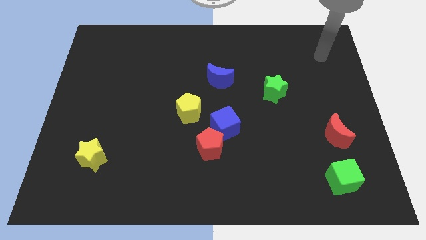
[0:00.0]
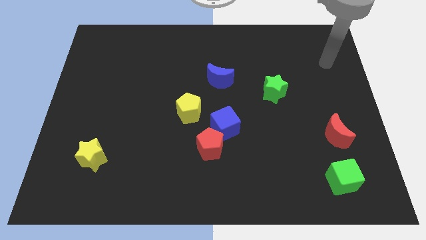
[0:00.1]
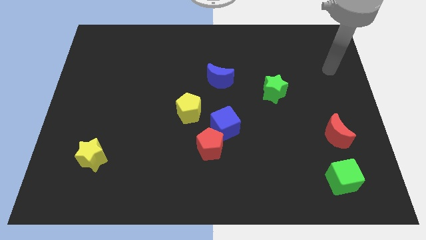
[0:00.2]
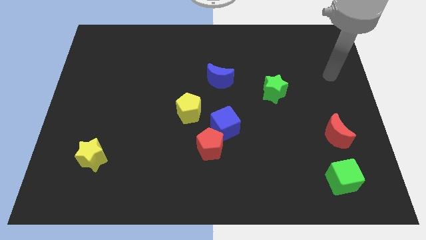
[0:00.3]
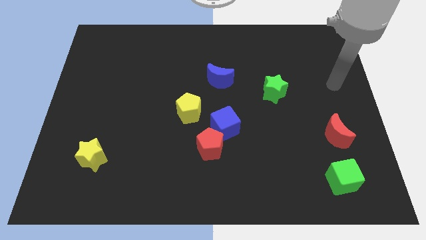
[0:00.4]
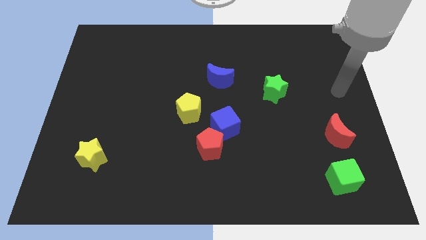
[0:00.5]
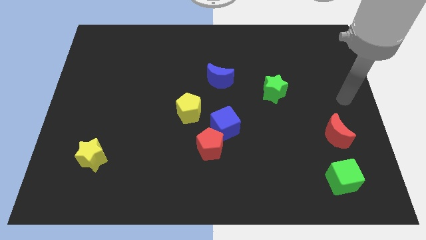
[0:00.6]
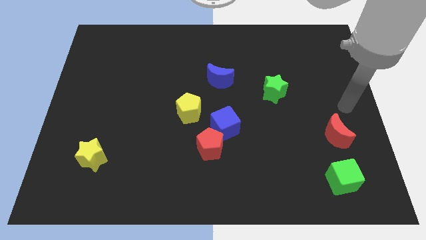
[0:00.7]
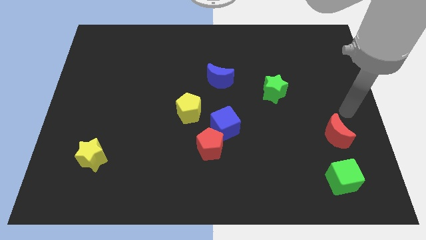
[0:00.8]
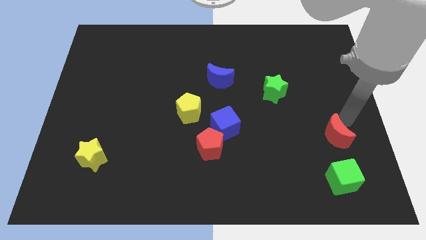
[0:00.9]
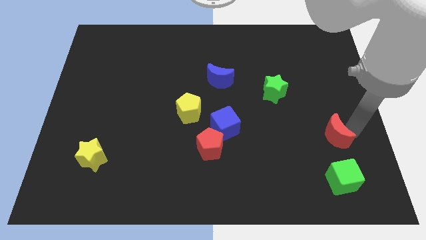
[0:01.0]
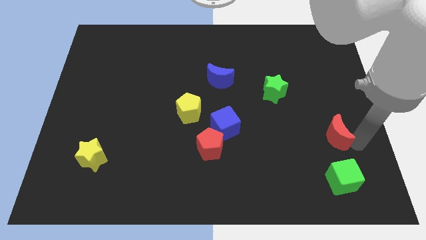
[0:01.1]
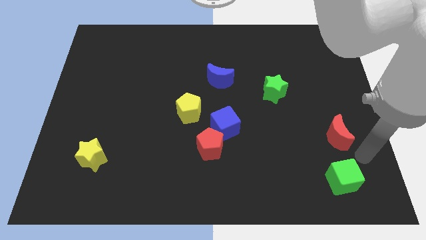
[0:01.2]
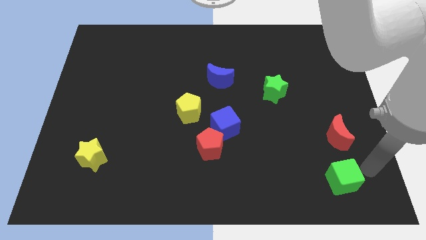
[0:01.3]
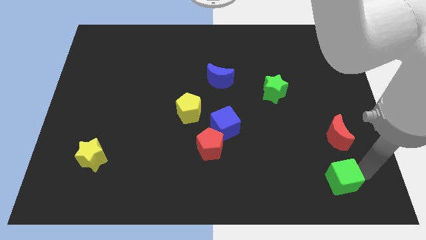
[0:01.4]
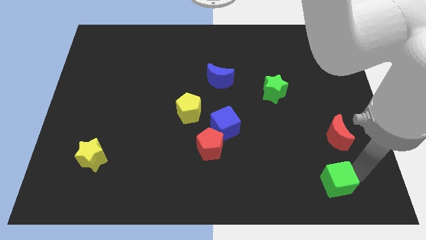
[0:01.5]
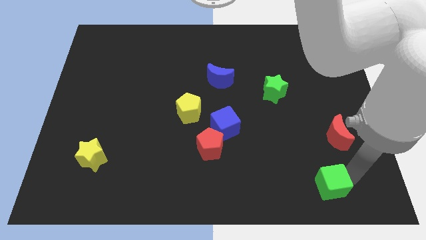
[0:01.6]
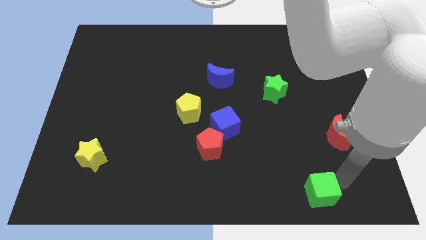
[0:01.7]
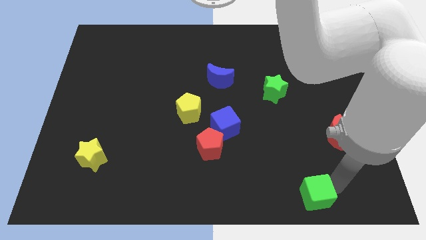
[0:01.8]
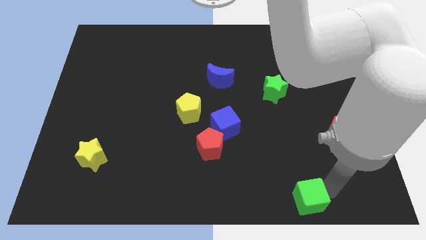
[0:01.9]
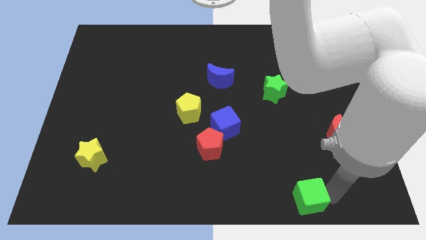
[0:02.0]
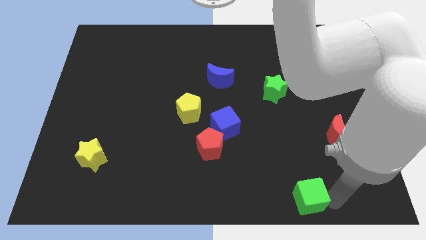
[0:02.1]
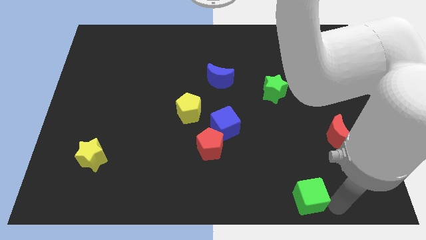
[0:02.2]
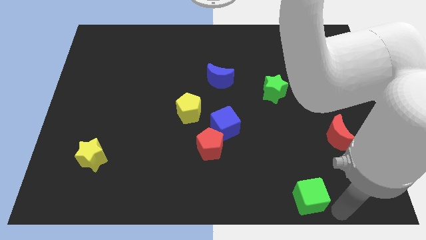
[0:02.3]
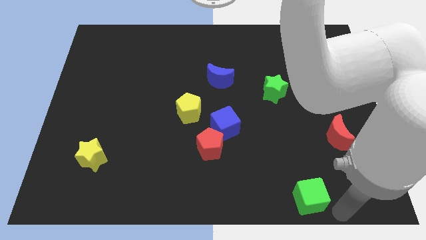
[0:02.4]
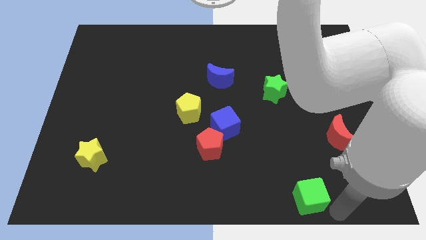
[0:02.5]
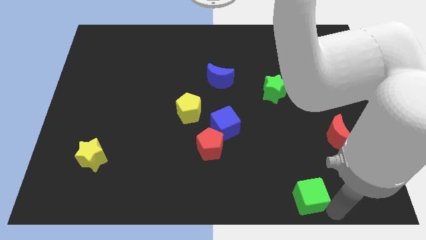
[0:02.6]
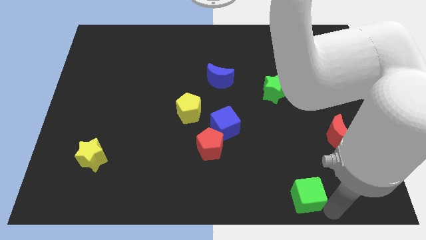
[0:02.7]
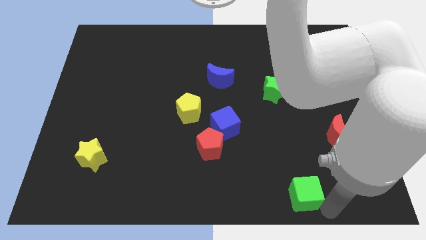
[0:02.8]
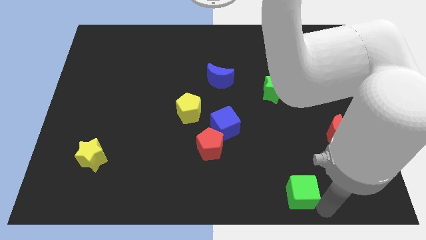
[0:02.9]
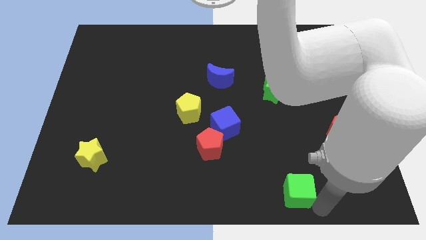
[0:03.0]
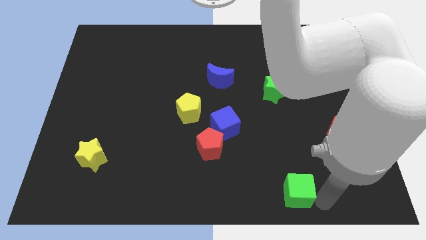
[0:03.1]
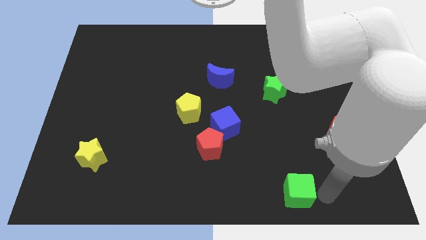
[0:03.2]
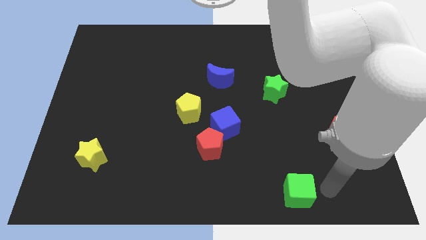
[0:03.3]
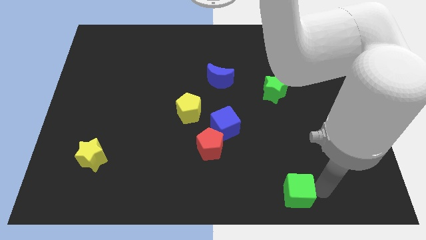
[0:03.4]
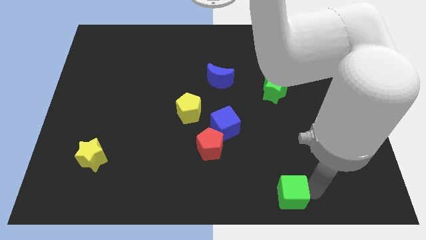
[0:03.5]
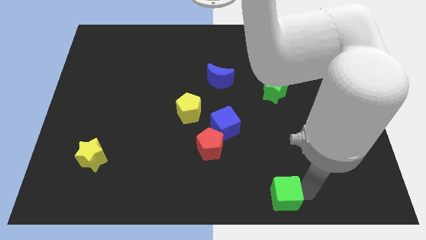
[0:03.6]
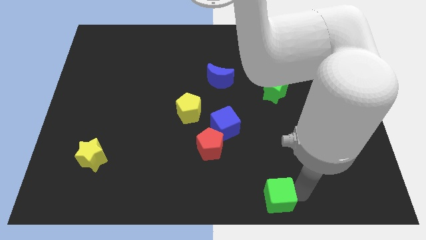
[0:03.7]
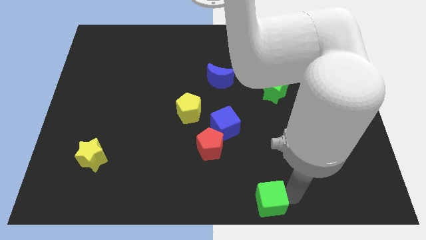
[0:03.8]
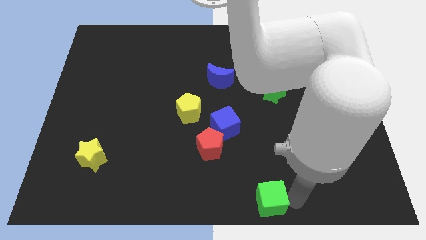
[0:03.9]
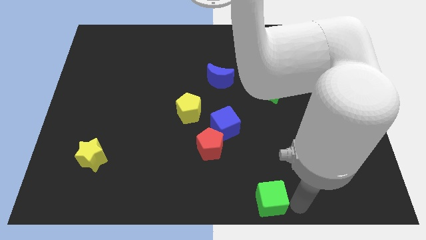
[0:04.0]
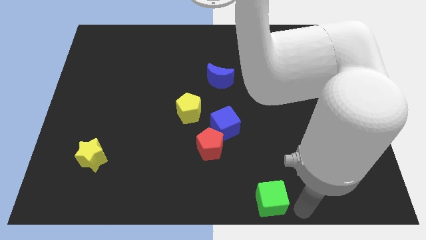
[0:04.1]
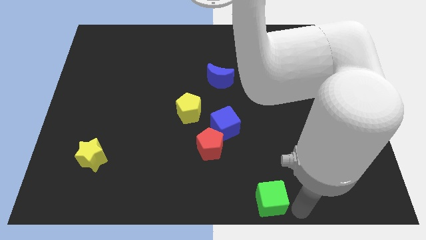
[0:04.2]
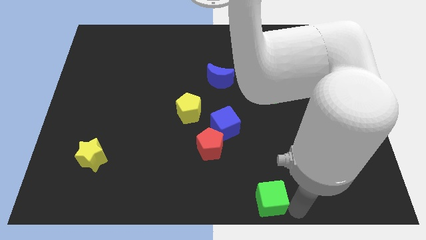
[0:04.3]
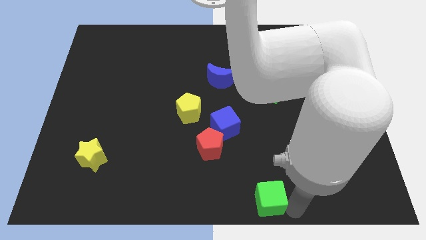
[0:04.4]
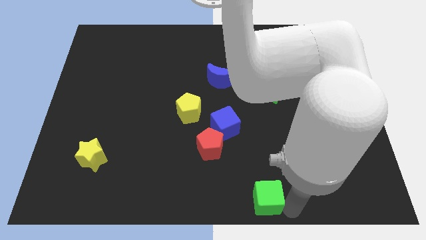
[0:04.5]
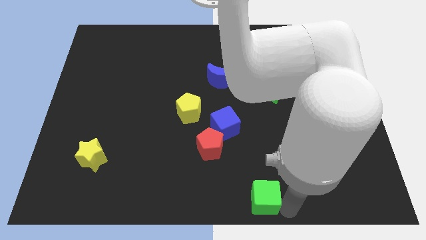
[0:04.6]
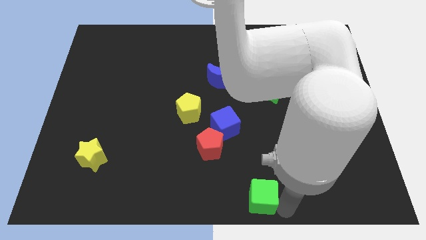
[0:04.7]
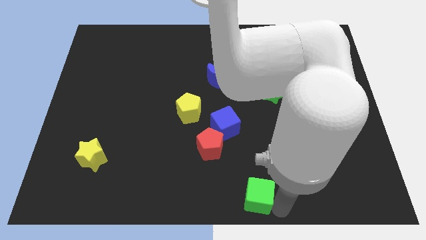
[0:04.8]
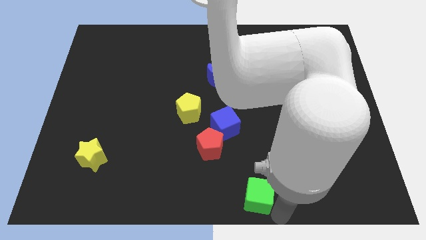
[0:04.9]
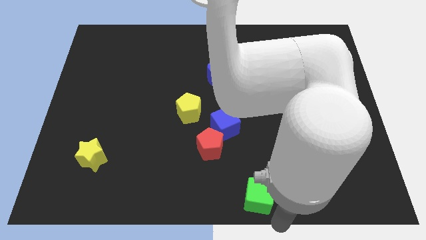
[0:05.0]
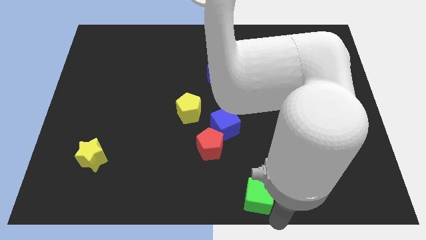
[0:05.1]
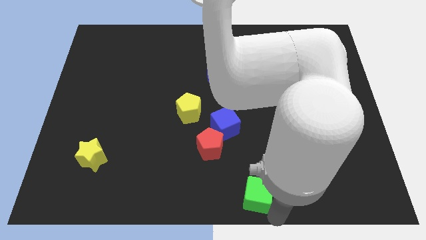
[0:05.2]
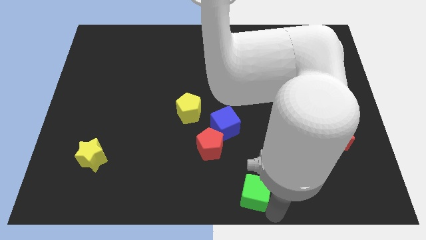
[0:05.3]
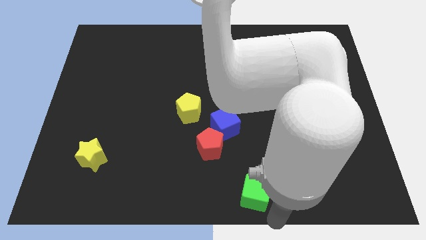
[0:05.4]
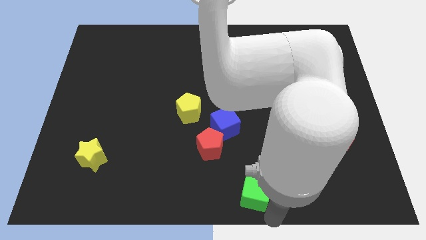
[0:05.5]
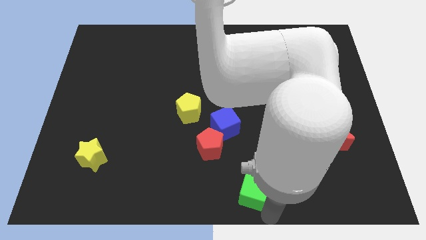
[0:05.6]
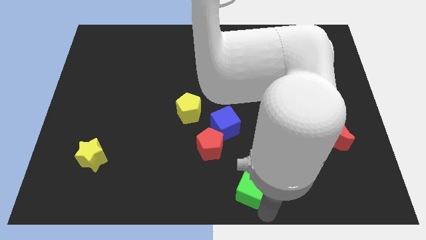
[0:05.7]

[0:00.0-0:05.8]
push the green cube diagonally down and to the right of the red pentagon

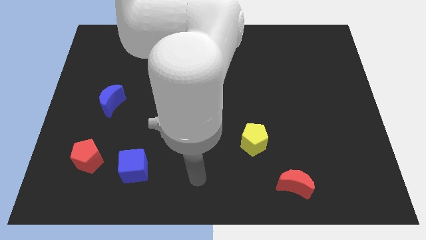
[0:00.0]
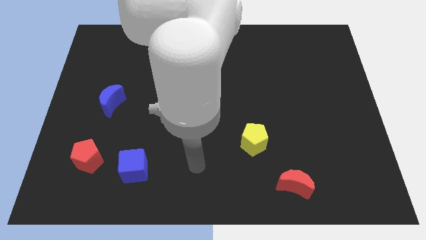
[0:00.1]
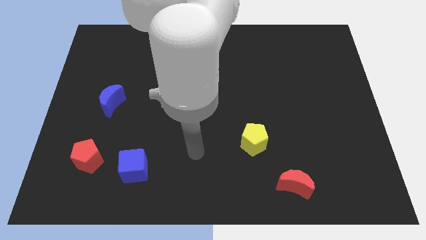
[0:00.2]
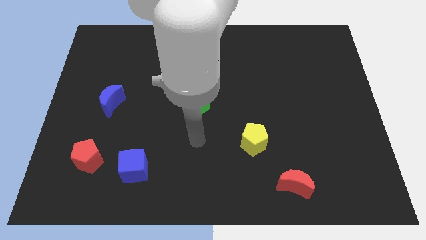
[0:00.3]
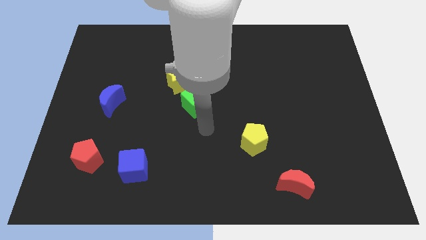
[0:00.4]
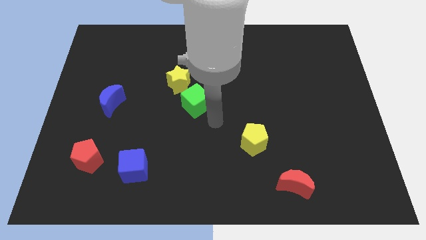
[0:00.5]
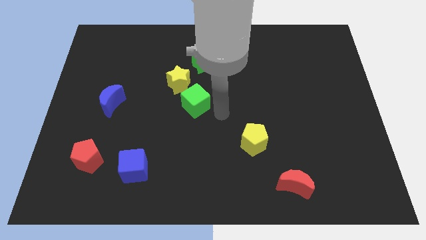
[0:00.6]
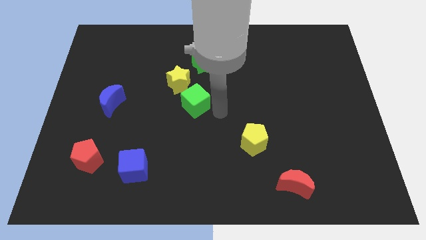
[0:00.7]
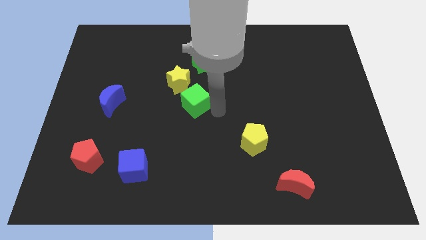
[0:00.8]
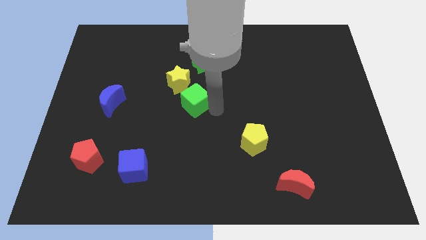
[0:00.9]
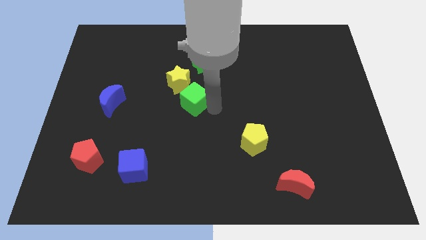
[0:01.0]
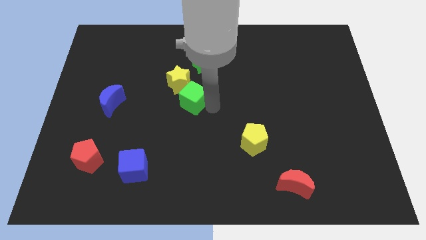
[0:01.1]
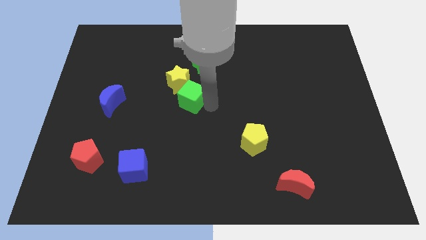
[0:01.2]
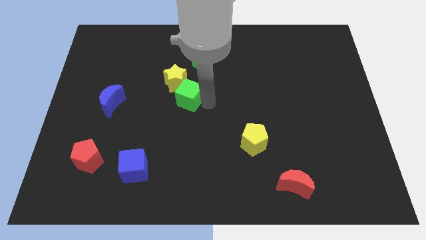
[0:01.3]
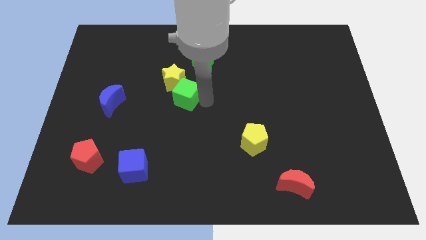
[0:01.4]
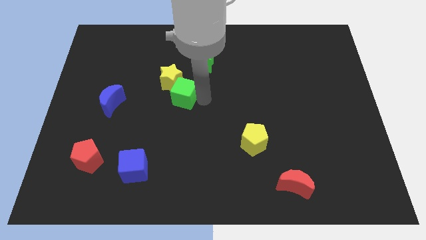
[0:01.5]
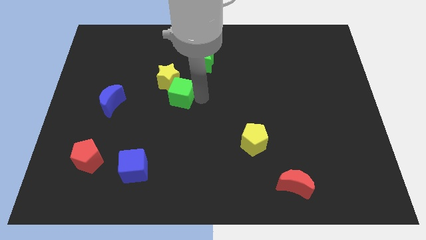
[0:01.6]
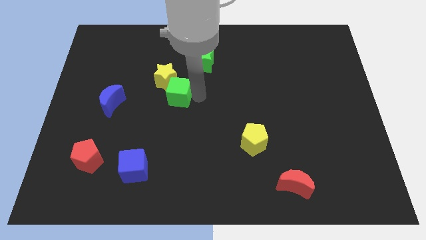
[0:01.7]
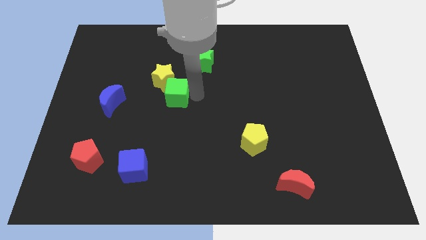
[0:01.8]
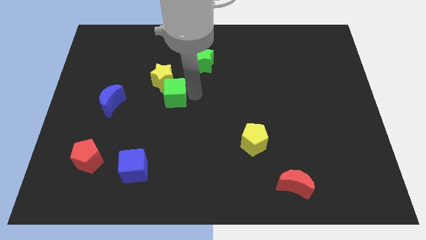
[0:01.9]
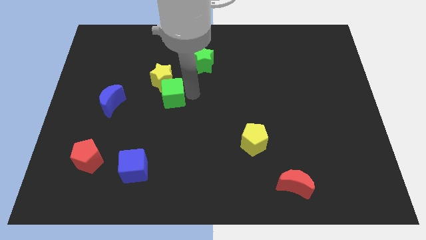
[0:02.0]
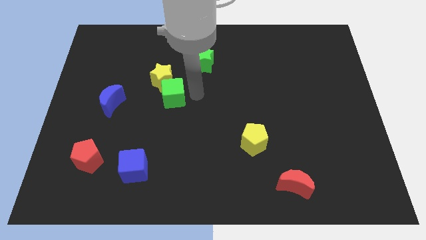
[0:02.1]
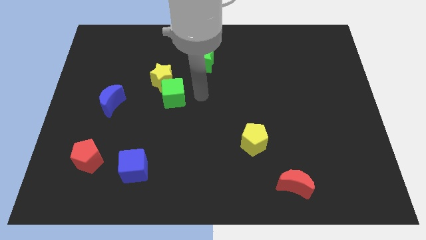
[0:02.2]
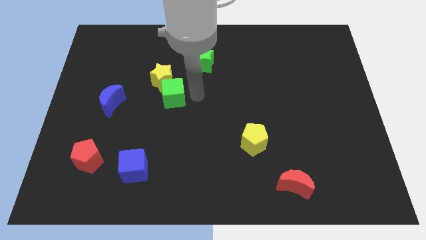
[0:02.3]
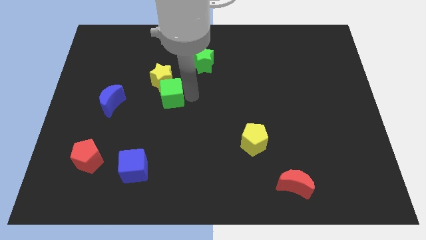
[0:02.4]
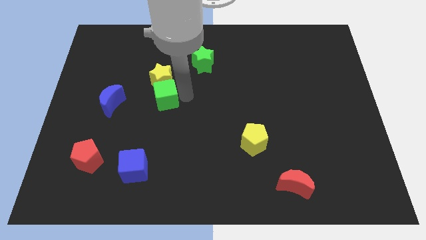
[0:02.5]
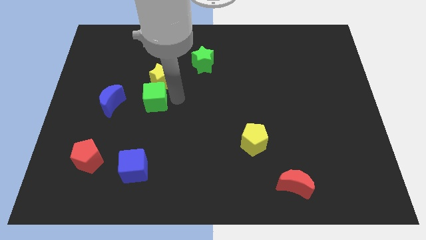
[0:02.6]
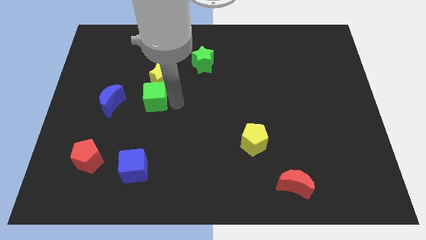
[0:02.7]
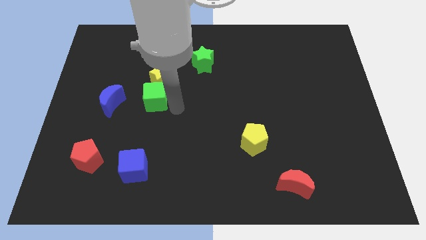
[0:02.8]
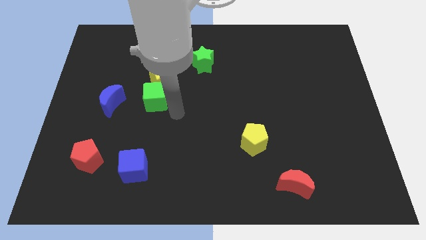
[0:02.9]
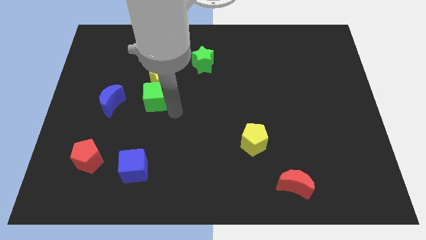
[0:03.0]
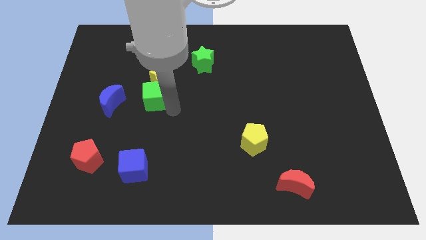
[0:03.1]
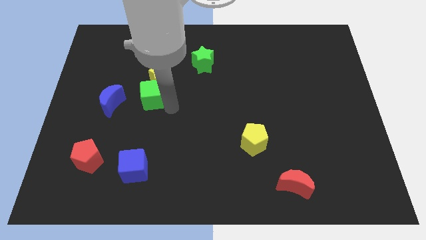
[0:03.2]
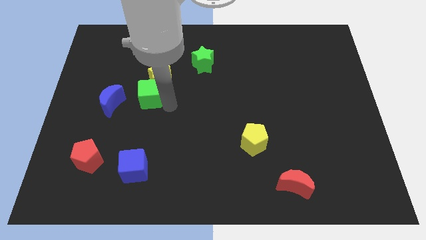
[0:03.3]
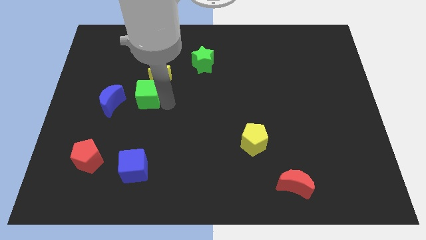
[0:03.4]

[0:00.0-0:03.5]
move the green cube to the top right side of the blue moon
